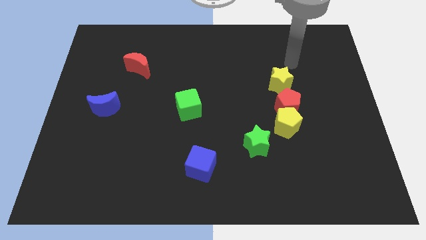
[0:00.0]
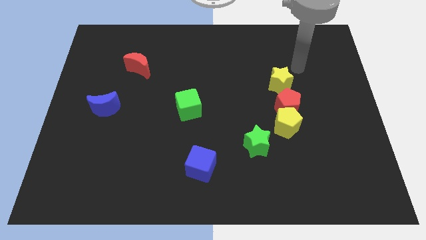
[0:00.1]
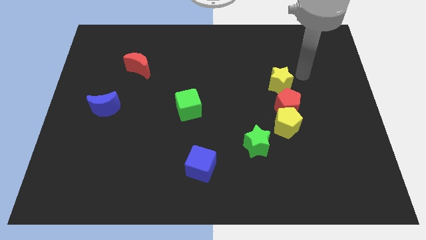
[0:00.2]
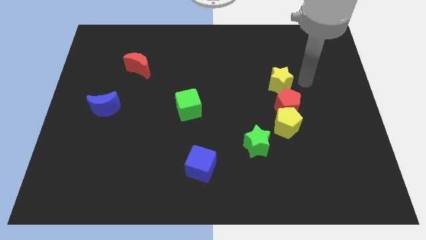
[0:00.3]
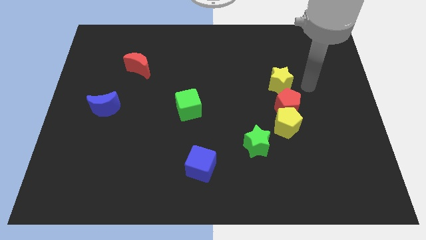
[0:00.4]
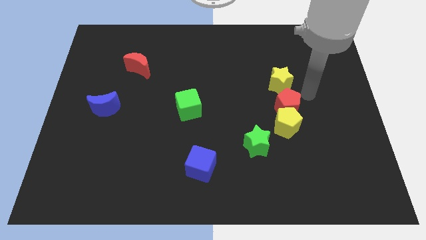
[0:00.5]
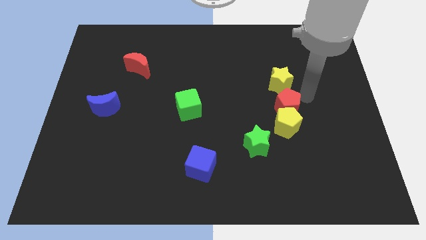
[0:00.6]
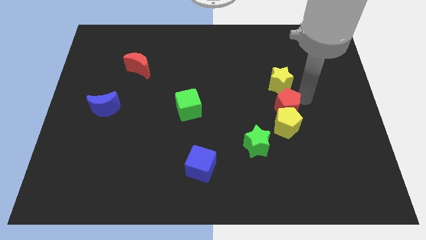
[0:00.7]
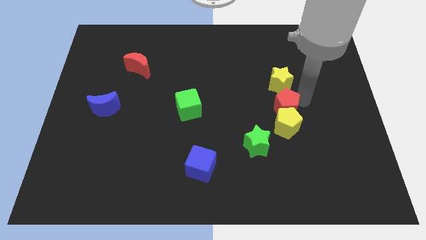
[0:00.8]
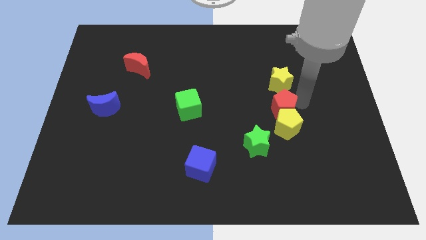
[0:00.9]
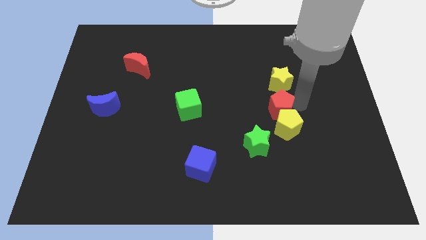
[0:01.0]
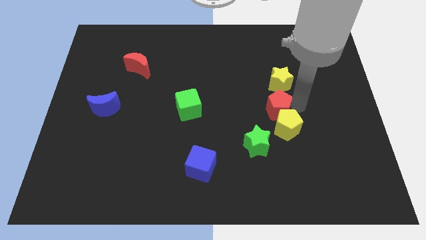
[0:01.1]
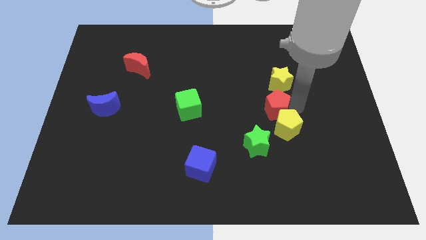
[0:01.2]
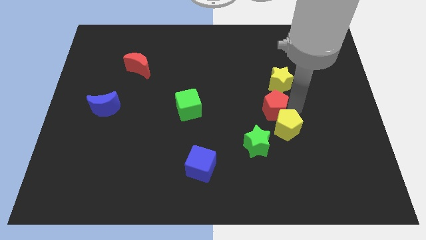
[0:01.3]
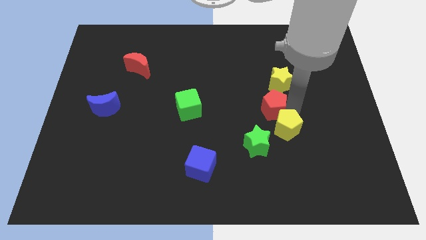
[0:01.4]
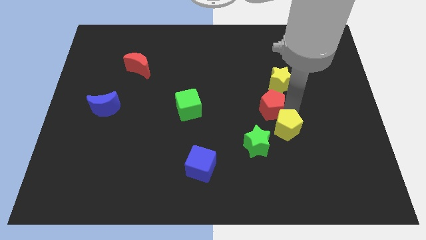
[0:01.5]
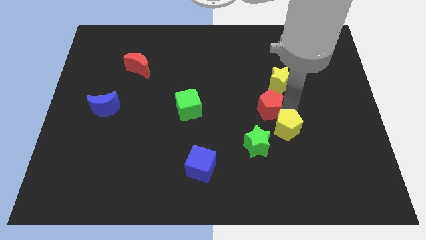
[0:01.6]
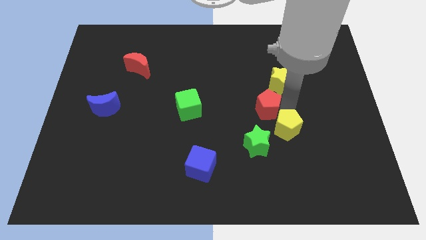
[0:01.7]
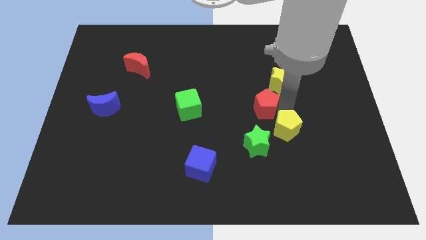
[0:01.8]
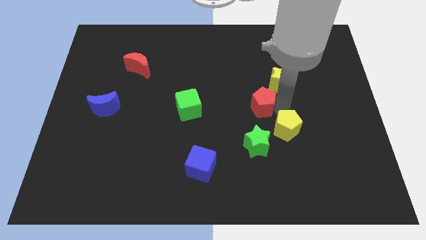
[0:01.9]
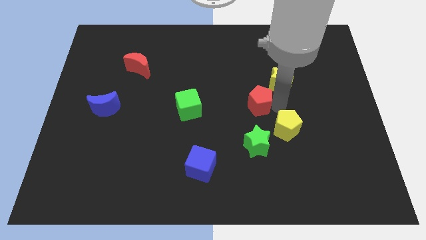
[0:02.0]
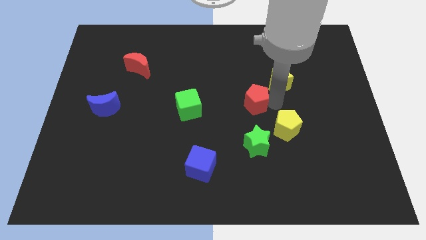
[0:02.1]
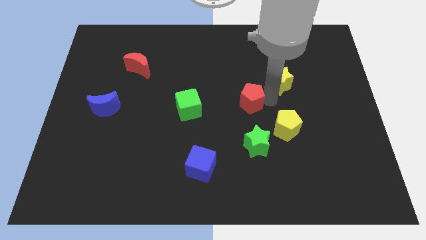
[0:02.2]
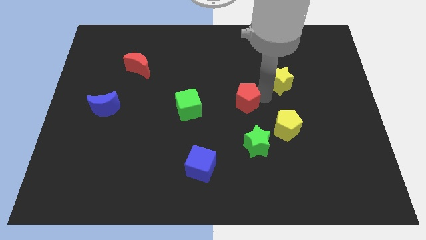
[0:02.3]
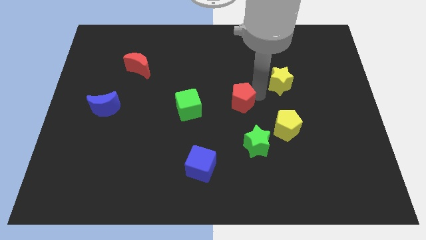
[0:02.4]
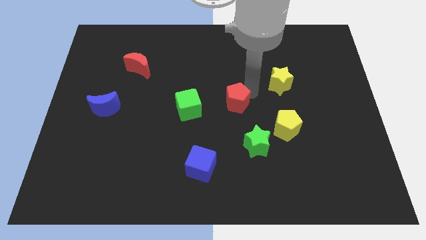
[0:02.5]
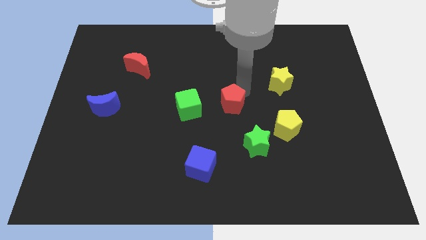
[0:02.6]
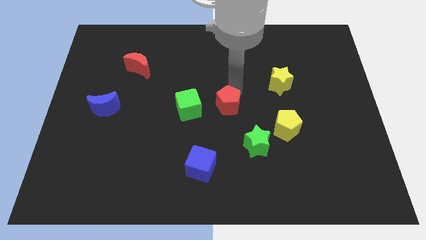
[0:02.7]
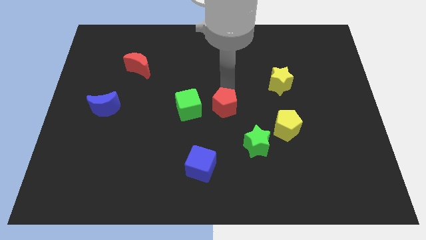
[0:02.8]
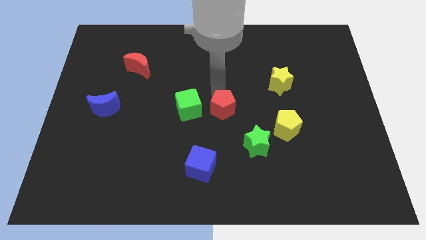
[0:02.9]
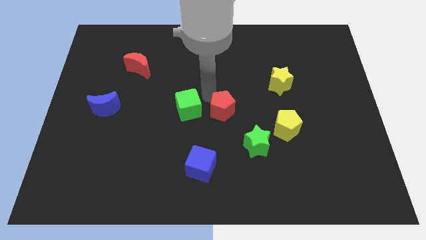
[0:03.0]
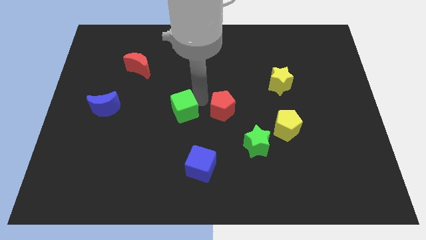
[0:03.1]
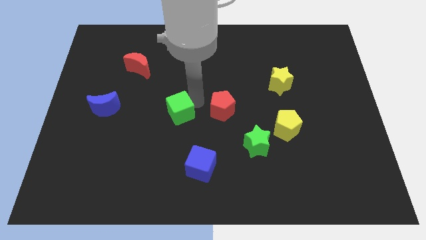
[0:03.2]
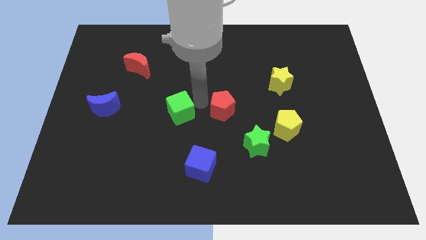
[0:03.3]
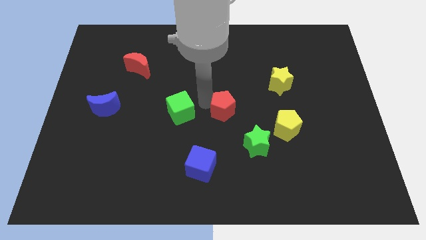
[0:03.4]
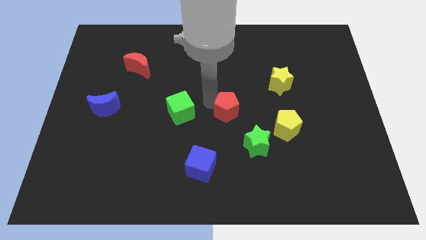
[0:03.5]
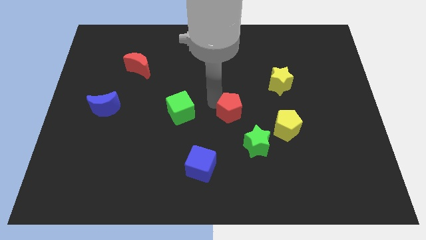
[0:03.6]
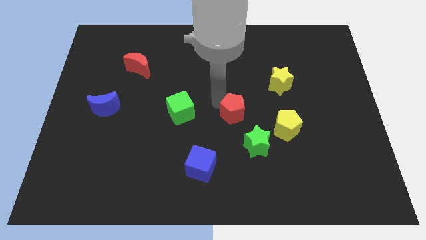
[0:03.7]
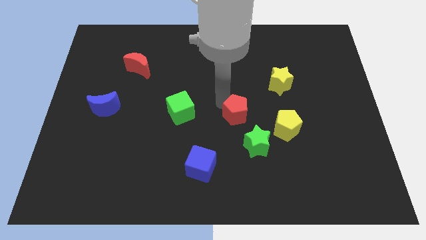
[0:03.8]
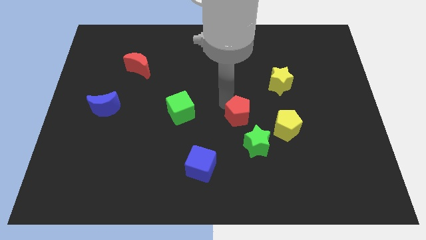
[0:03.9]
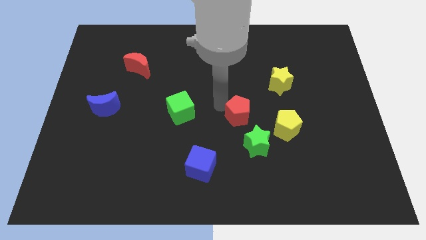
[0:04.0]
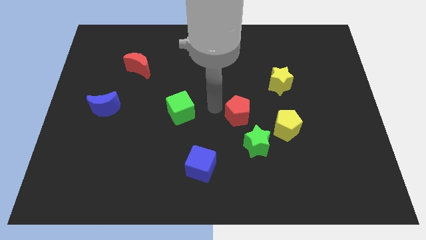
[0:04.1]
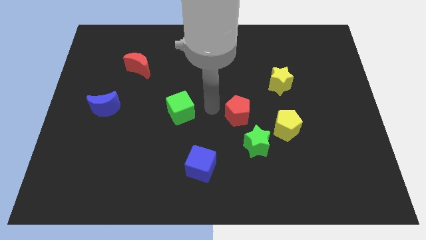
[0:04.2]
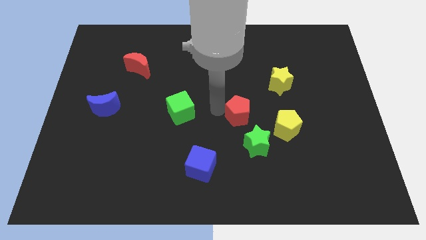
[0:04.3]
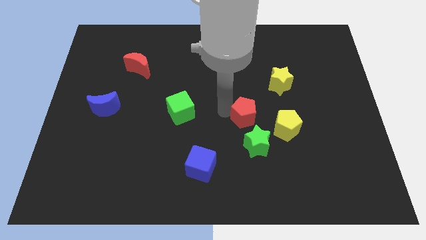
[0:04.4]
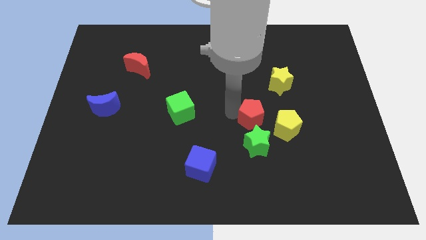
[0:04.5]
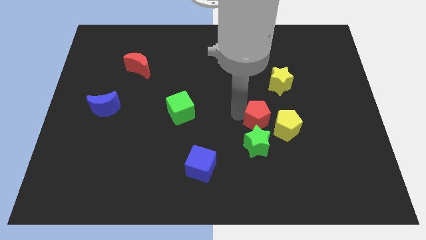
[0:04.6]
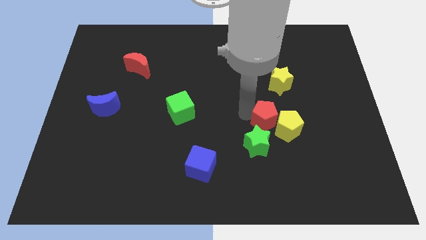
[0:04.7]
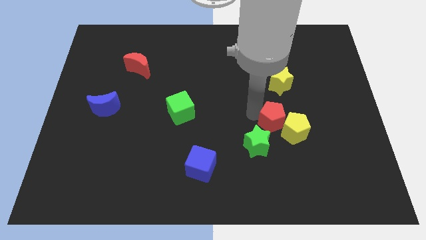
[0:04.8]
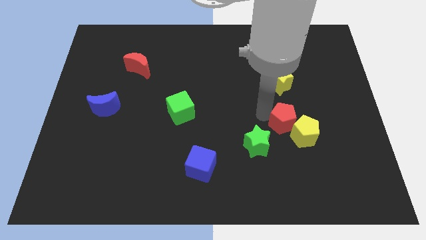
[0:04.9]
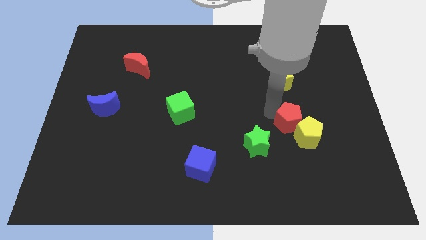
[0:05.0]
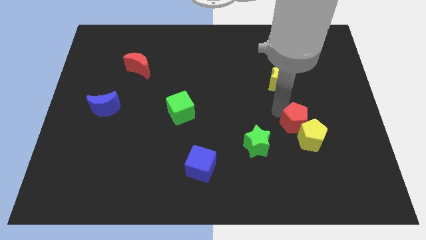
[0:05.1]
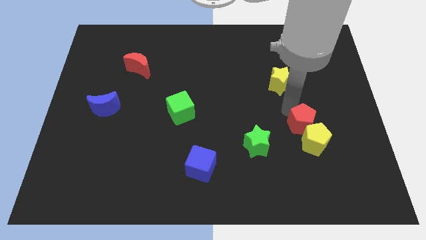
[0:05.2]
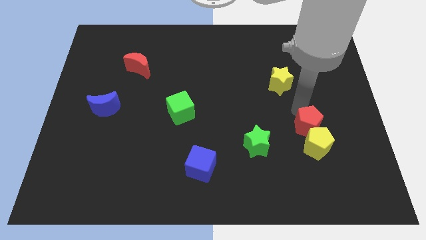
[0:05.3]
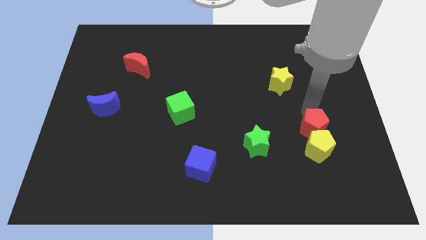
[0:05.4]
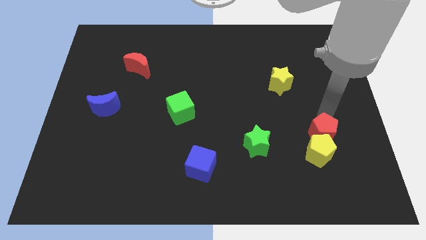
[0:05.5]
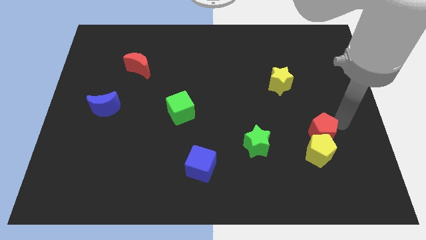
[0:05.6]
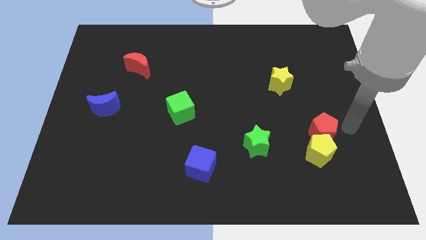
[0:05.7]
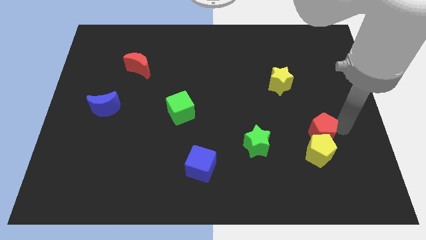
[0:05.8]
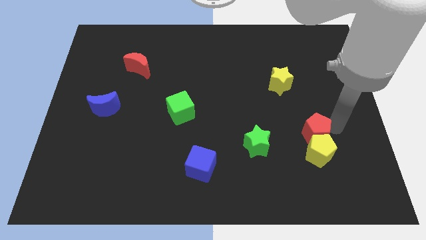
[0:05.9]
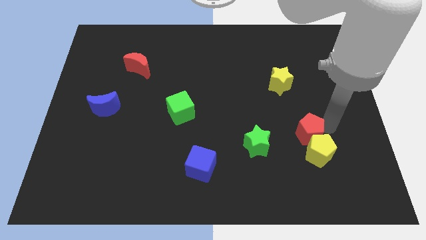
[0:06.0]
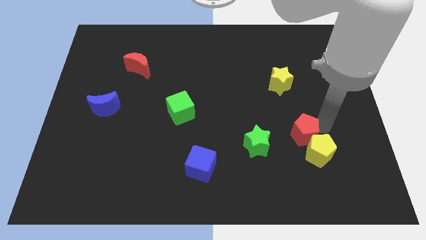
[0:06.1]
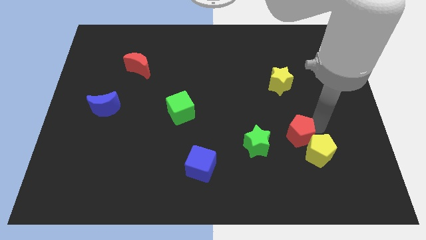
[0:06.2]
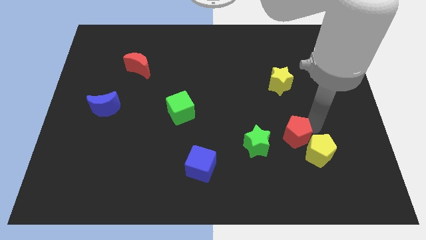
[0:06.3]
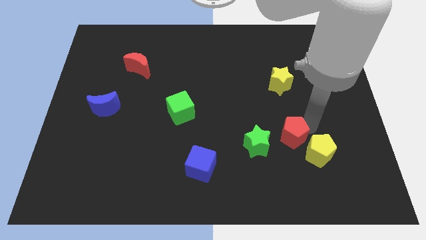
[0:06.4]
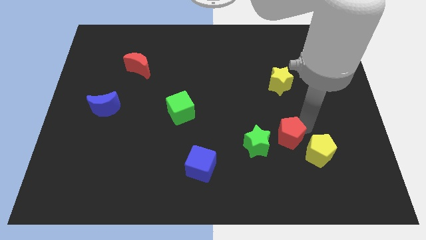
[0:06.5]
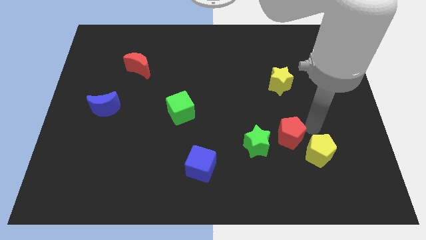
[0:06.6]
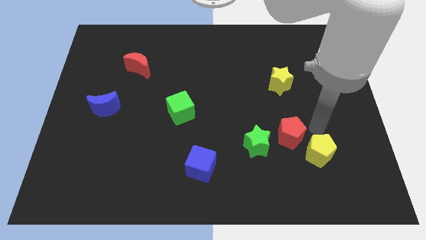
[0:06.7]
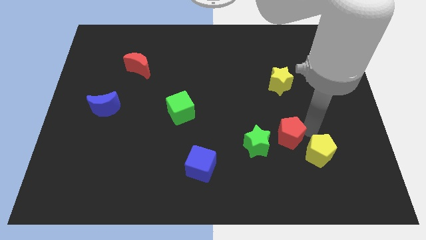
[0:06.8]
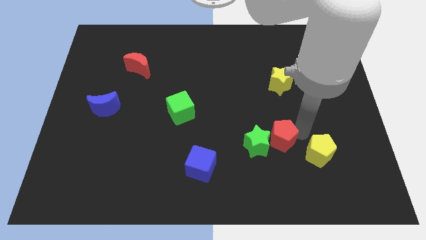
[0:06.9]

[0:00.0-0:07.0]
slide the red pentagon to the green star

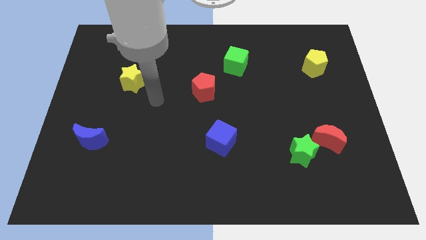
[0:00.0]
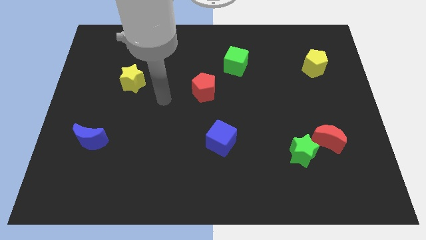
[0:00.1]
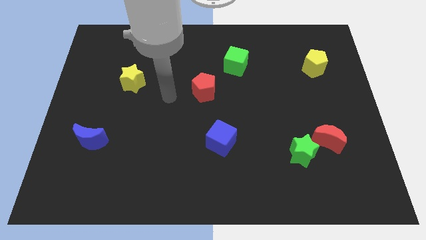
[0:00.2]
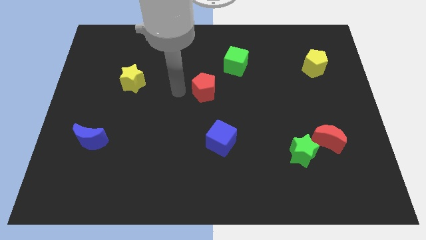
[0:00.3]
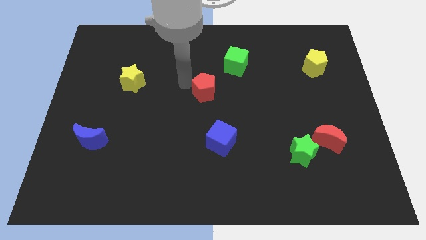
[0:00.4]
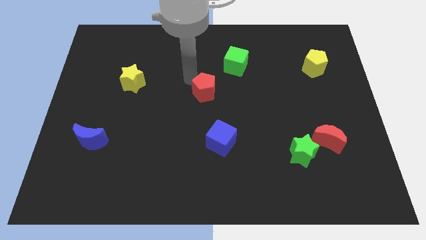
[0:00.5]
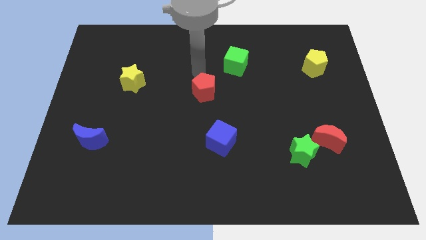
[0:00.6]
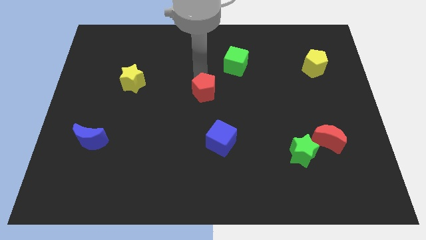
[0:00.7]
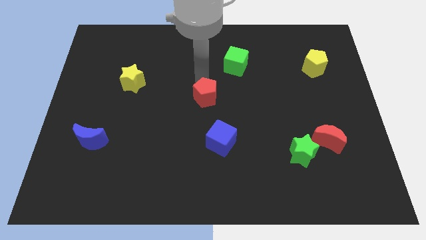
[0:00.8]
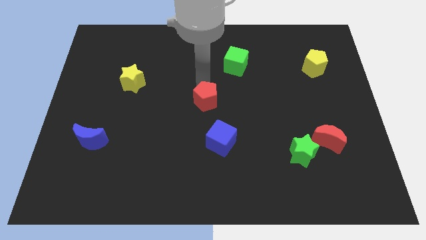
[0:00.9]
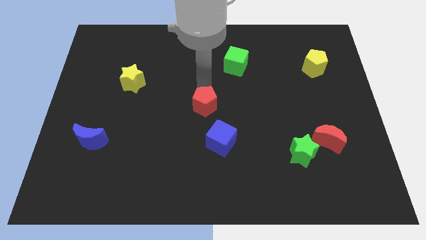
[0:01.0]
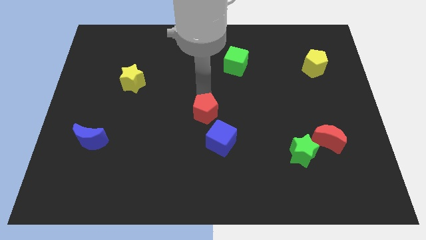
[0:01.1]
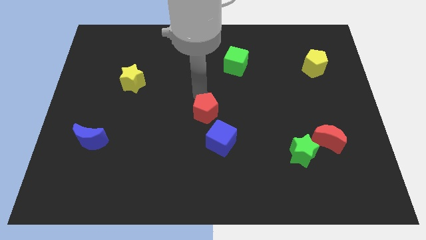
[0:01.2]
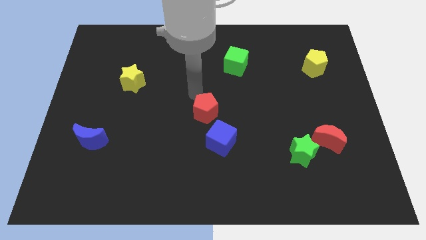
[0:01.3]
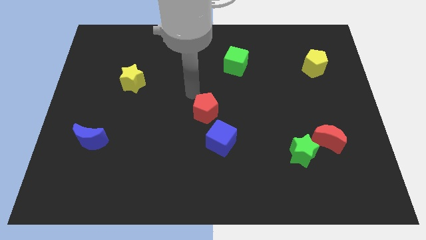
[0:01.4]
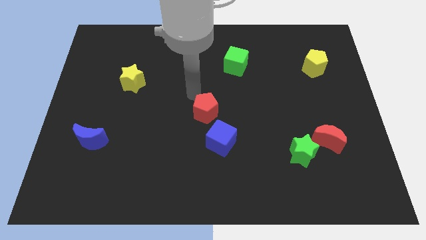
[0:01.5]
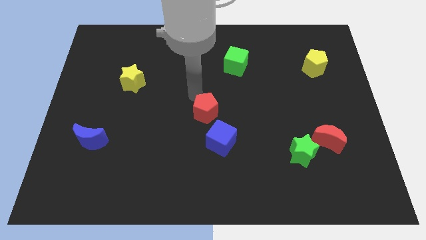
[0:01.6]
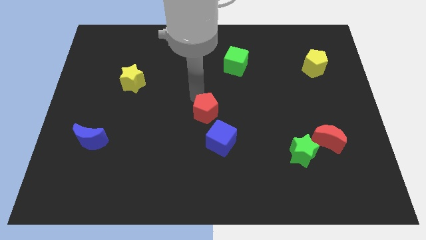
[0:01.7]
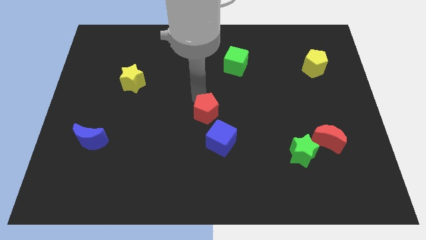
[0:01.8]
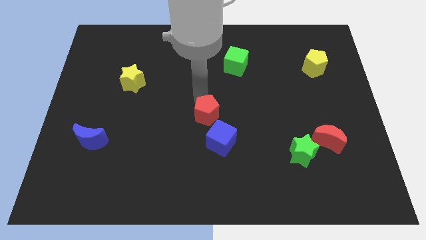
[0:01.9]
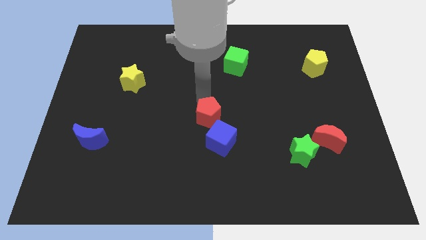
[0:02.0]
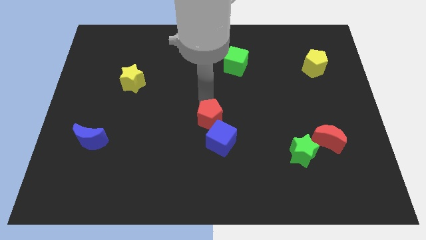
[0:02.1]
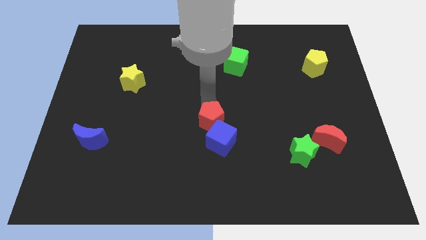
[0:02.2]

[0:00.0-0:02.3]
move the red pentagon towards the blue cube
